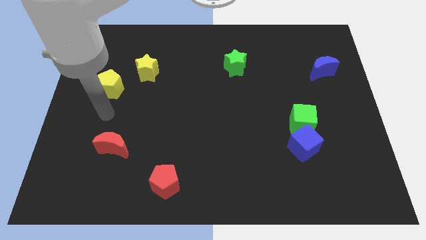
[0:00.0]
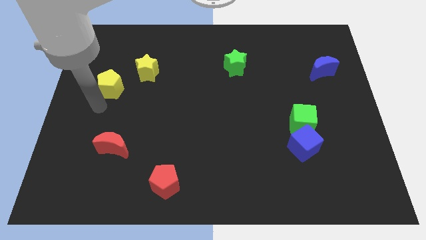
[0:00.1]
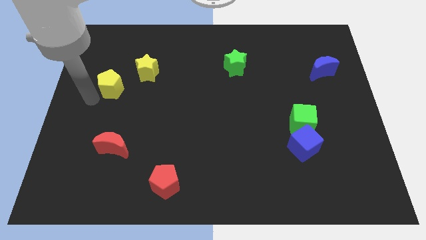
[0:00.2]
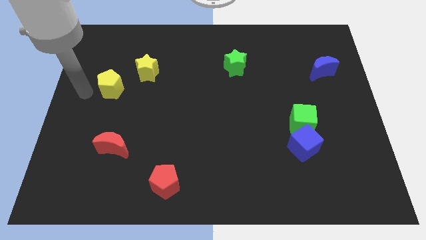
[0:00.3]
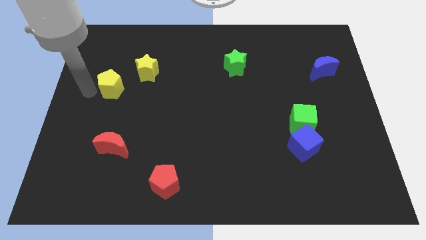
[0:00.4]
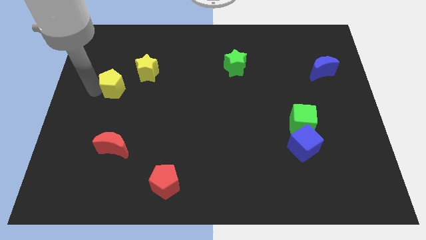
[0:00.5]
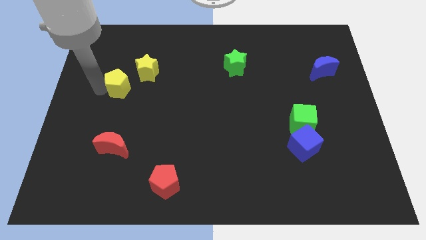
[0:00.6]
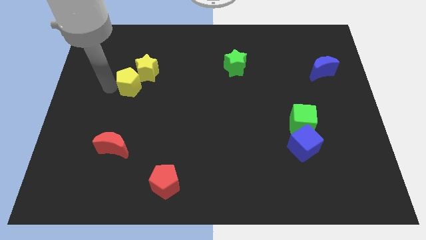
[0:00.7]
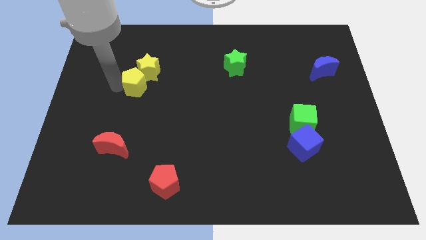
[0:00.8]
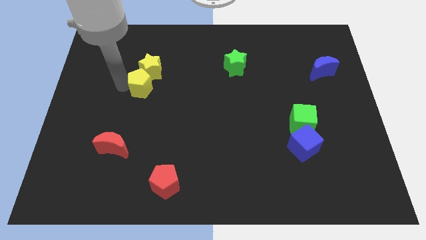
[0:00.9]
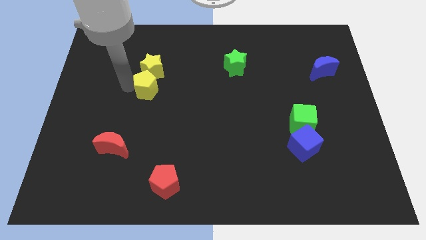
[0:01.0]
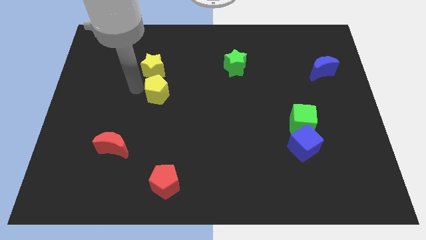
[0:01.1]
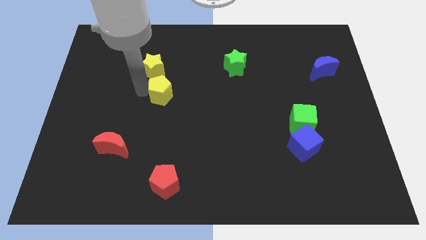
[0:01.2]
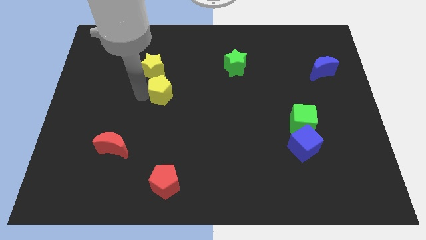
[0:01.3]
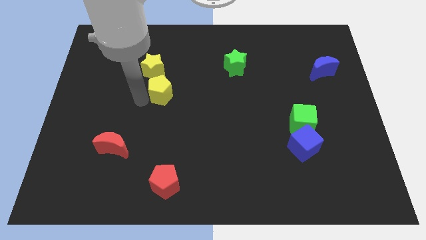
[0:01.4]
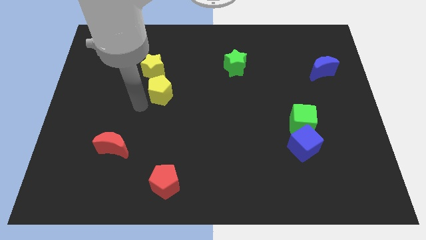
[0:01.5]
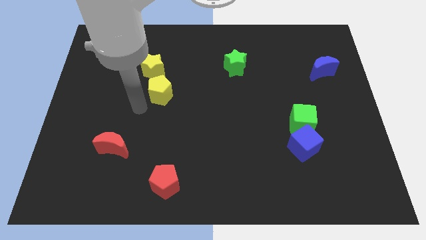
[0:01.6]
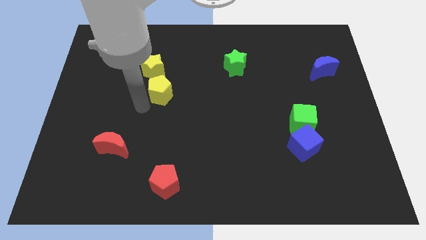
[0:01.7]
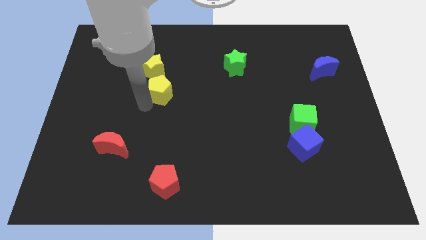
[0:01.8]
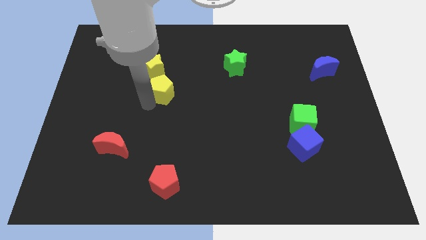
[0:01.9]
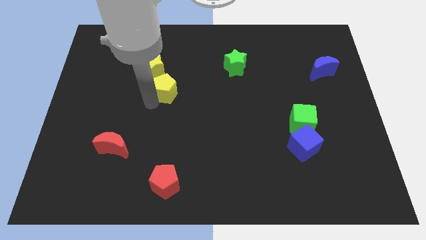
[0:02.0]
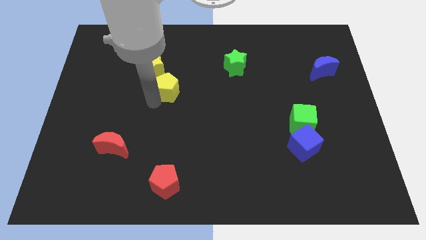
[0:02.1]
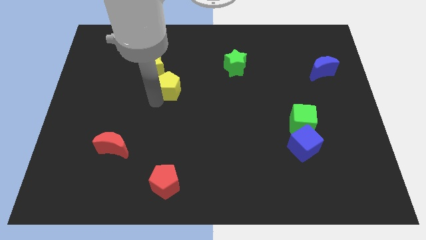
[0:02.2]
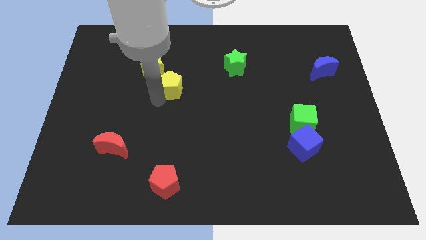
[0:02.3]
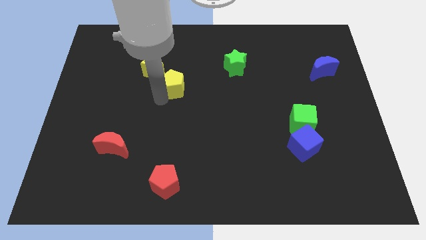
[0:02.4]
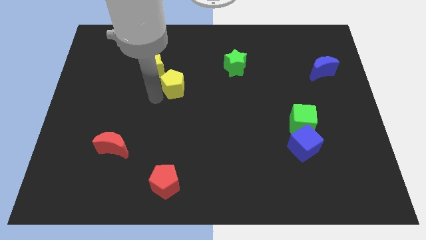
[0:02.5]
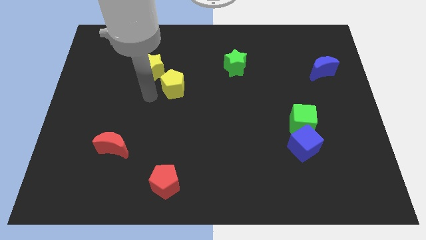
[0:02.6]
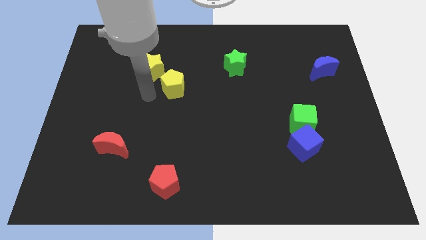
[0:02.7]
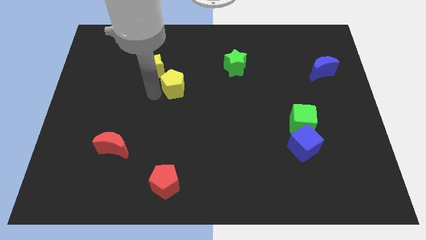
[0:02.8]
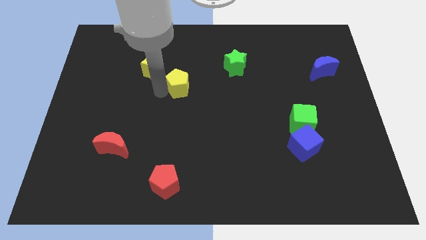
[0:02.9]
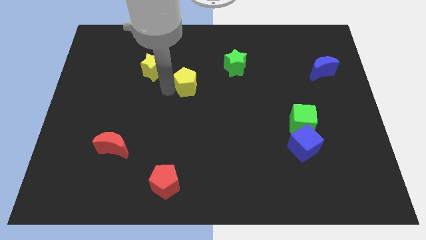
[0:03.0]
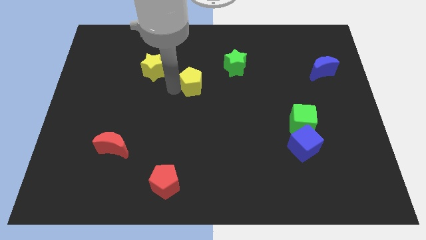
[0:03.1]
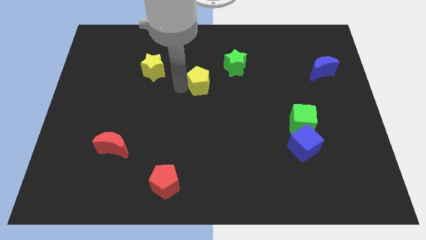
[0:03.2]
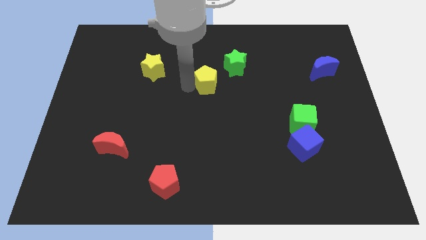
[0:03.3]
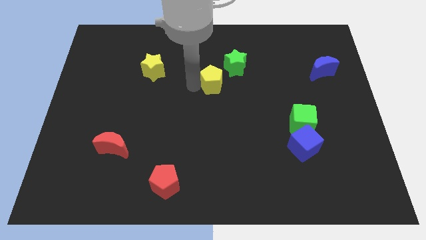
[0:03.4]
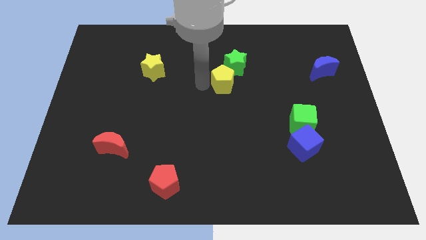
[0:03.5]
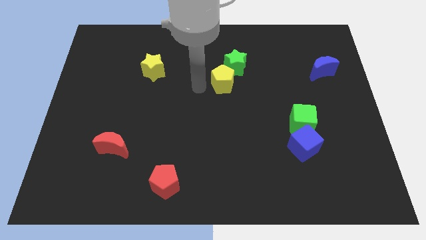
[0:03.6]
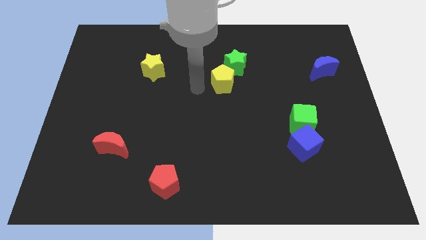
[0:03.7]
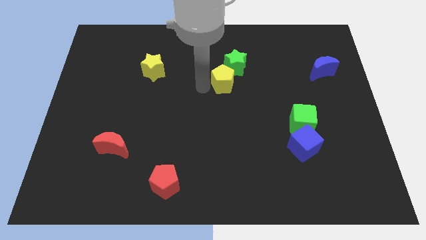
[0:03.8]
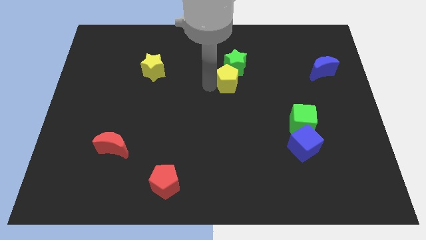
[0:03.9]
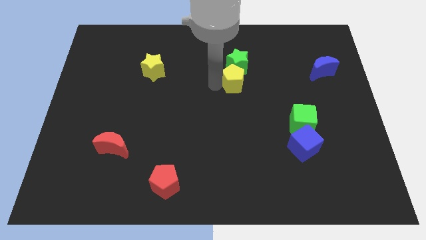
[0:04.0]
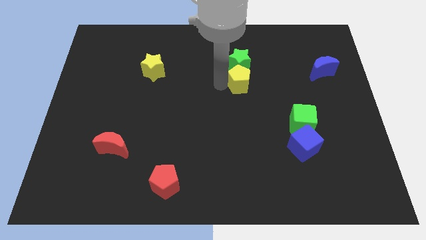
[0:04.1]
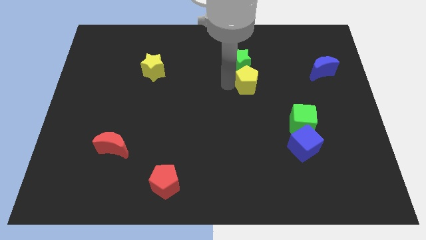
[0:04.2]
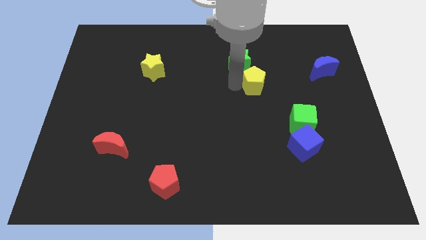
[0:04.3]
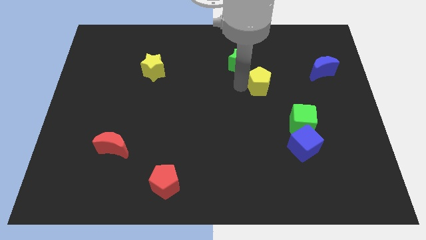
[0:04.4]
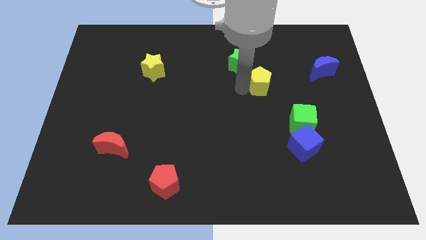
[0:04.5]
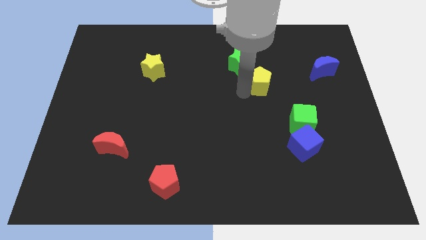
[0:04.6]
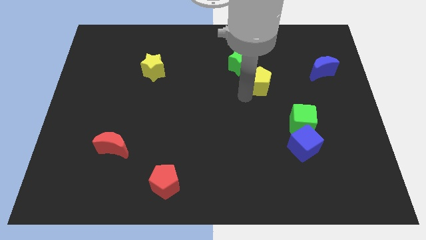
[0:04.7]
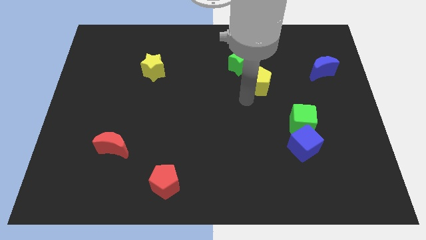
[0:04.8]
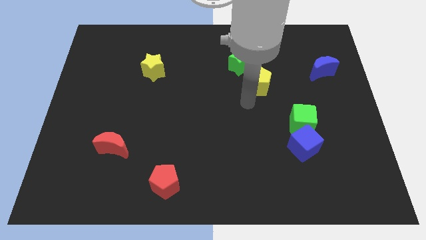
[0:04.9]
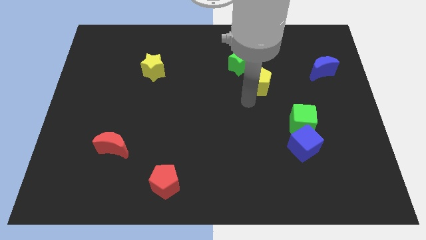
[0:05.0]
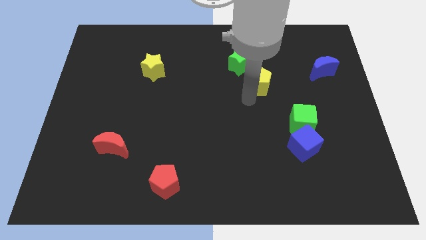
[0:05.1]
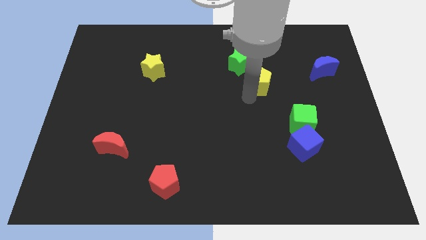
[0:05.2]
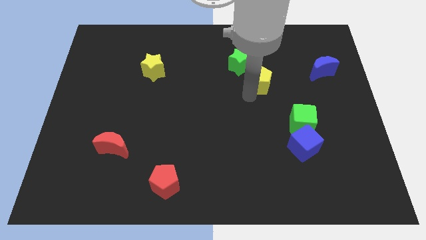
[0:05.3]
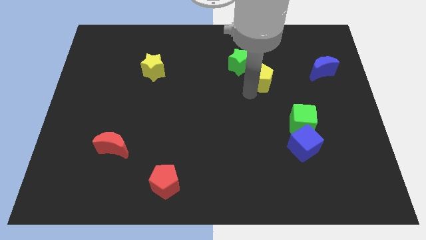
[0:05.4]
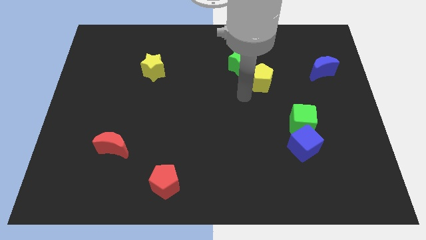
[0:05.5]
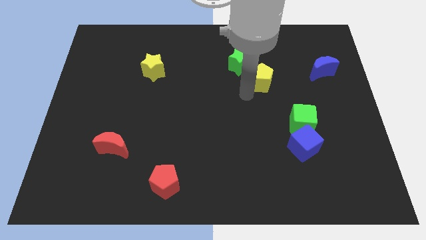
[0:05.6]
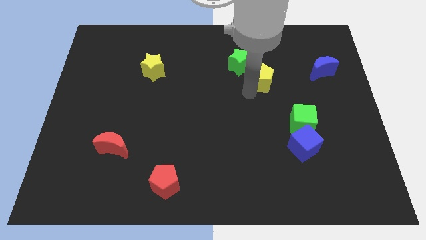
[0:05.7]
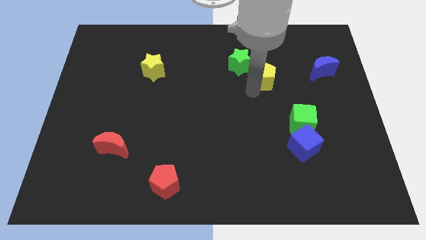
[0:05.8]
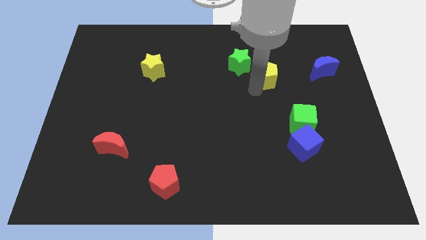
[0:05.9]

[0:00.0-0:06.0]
move the yellow pentagon to the right side of the green star

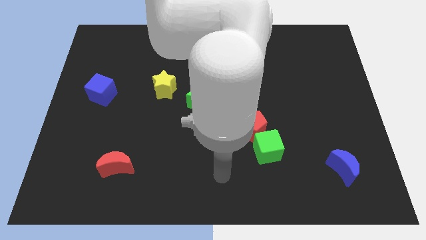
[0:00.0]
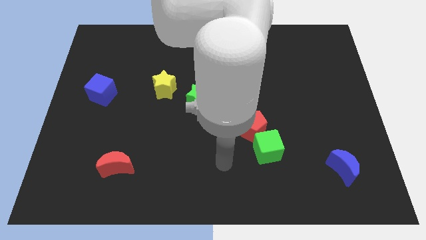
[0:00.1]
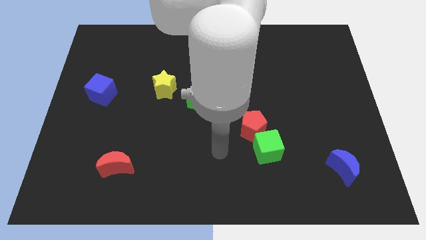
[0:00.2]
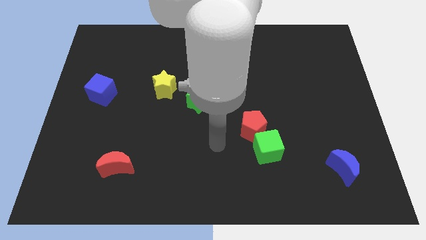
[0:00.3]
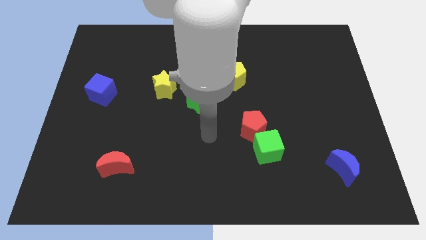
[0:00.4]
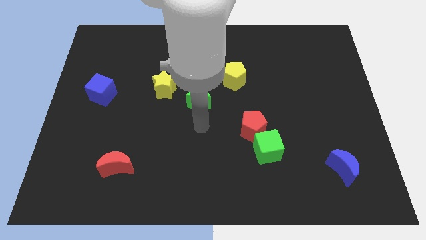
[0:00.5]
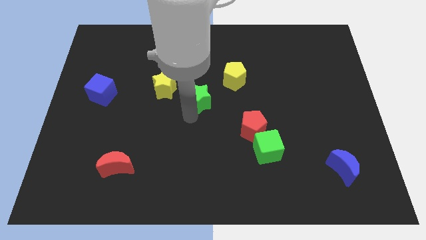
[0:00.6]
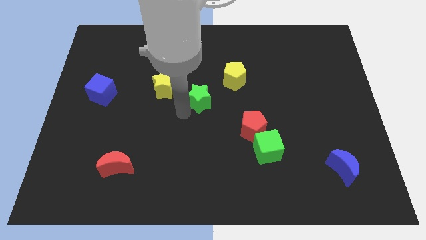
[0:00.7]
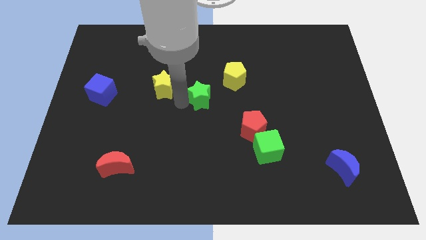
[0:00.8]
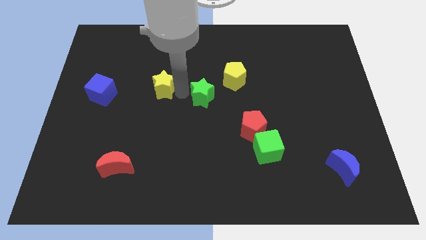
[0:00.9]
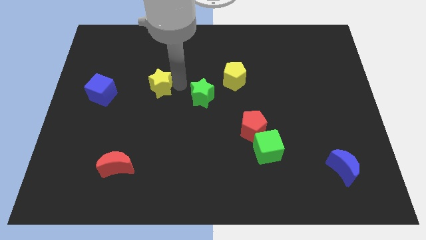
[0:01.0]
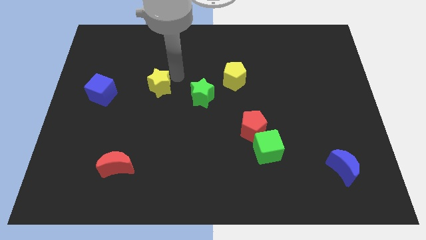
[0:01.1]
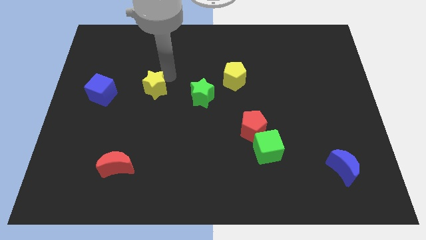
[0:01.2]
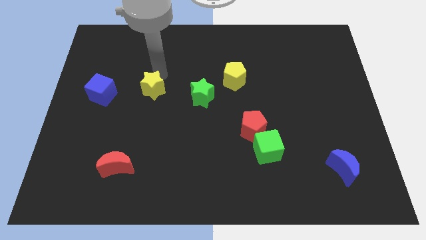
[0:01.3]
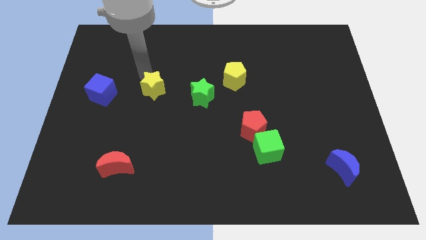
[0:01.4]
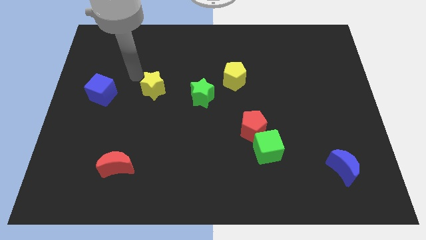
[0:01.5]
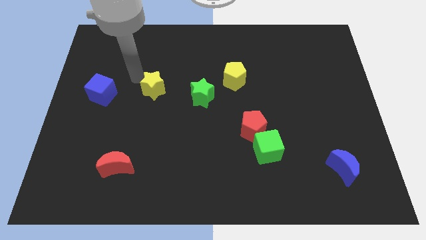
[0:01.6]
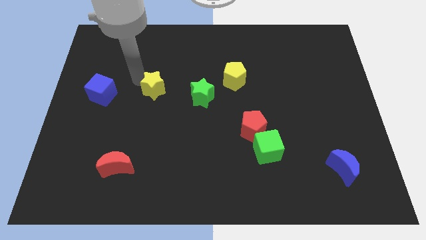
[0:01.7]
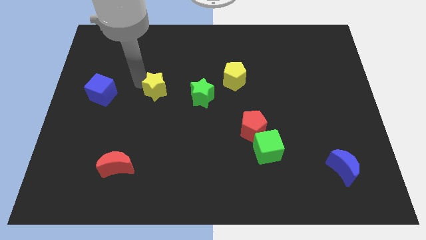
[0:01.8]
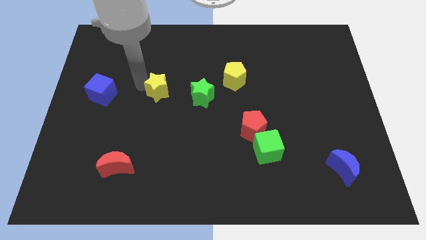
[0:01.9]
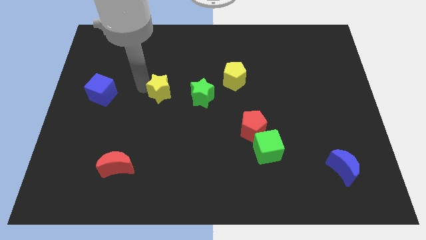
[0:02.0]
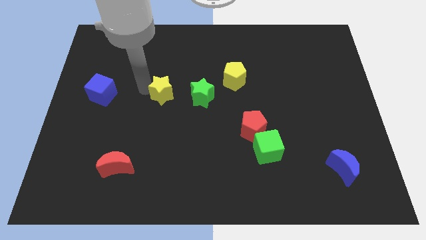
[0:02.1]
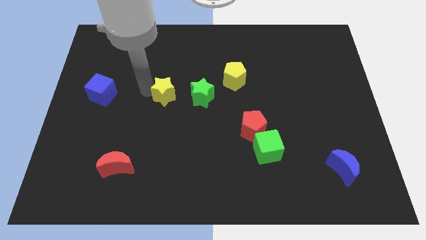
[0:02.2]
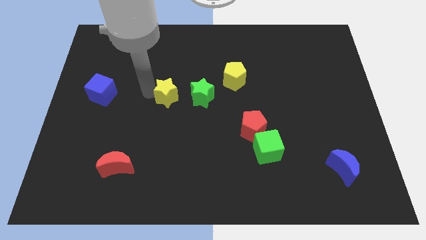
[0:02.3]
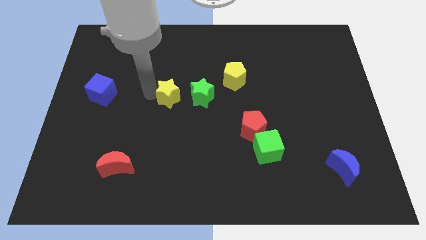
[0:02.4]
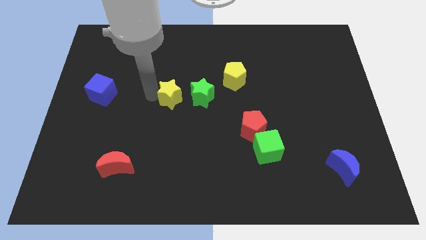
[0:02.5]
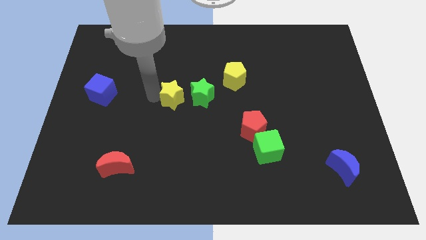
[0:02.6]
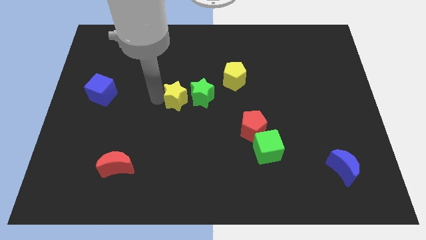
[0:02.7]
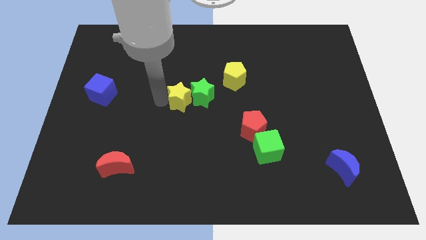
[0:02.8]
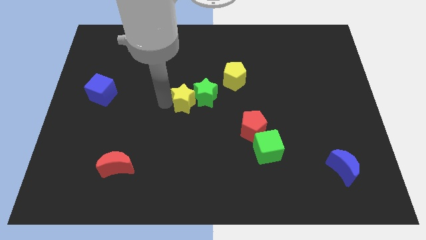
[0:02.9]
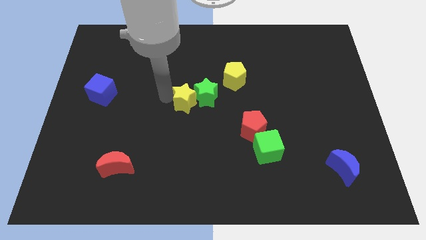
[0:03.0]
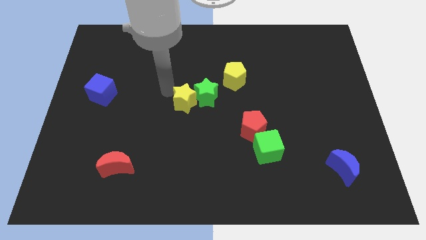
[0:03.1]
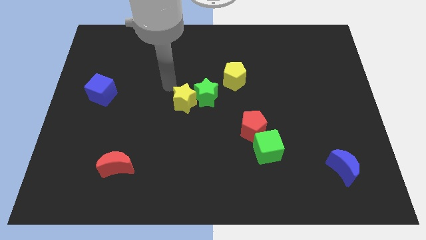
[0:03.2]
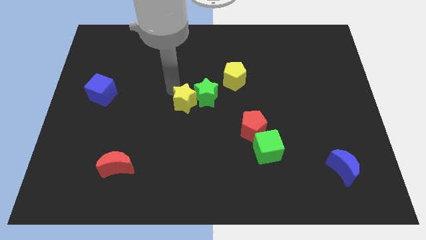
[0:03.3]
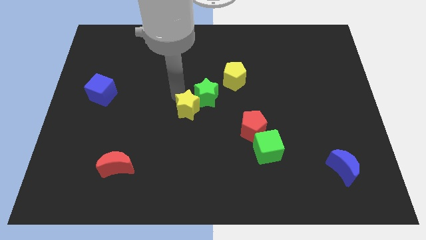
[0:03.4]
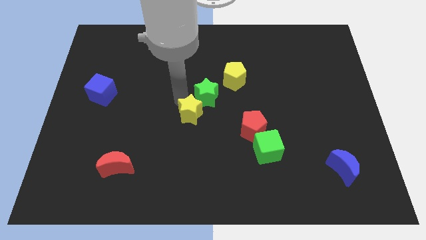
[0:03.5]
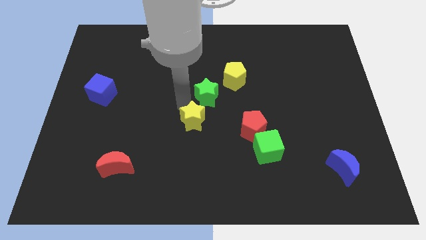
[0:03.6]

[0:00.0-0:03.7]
push the yellow star to the left side of the red pentagon
